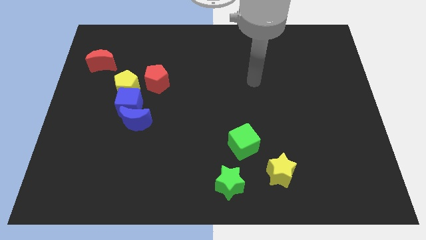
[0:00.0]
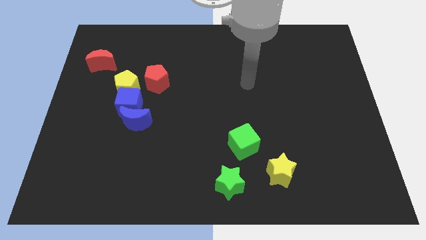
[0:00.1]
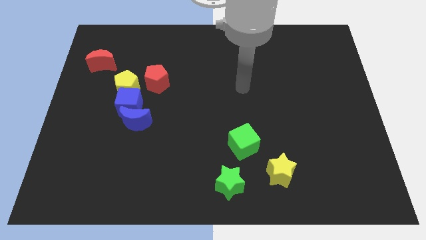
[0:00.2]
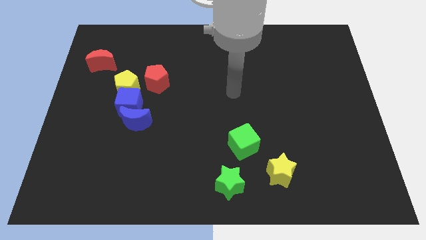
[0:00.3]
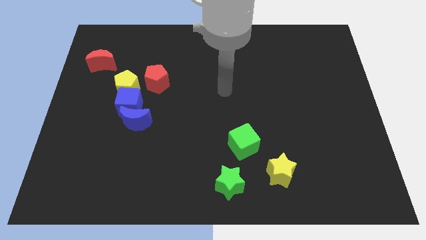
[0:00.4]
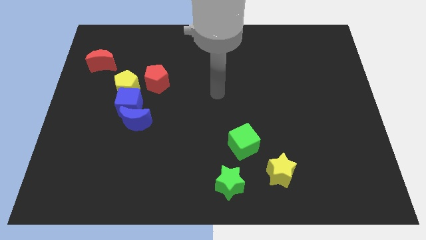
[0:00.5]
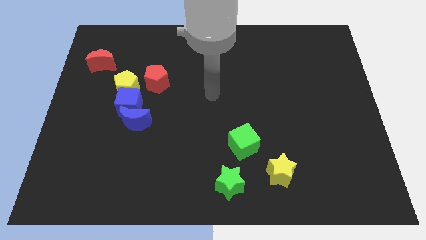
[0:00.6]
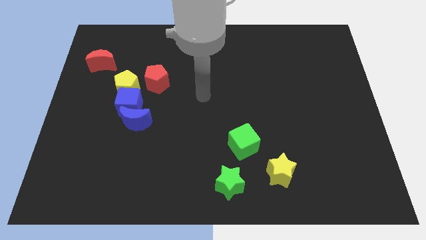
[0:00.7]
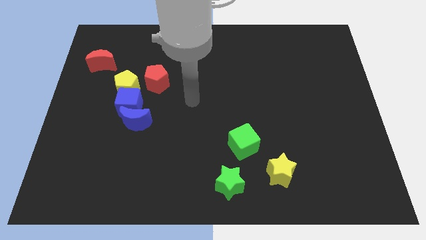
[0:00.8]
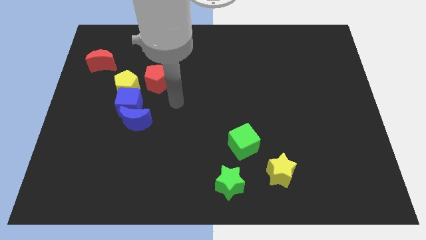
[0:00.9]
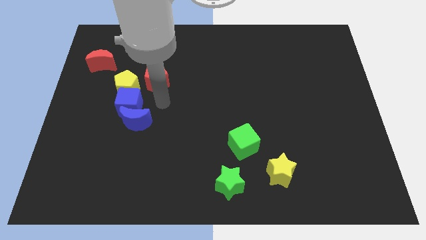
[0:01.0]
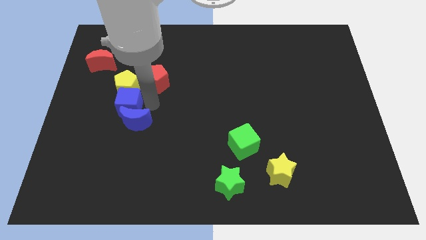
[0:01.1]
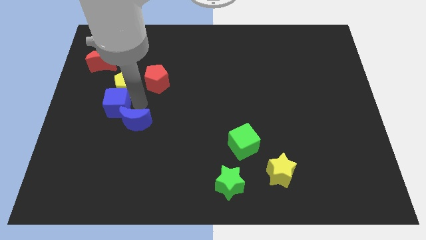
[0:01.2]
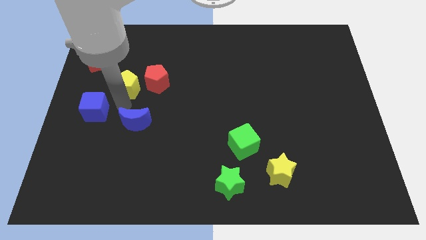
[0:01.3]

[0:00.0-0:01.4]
pull the blue moon apart from the blue cube

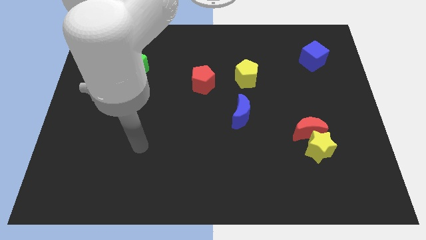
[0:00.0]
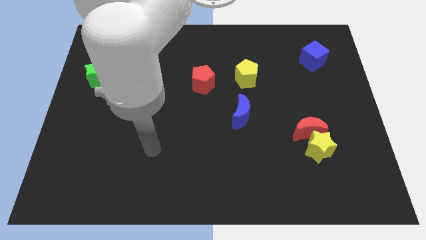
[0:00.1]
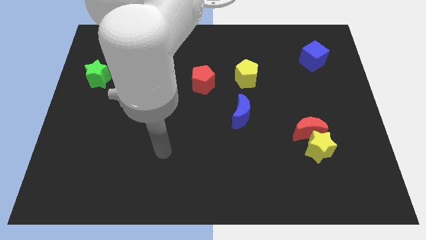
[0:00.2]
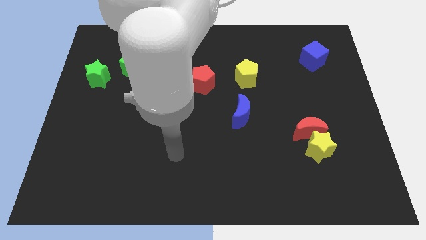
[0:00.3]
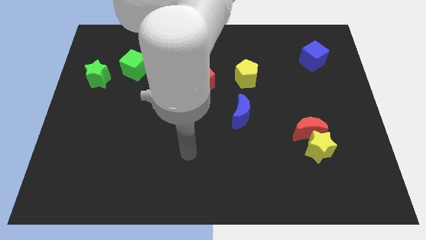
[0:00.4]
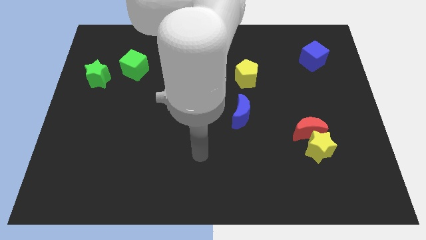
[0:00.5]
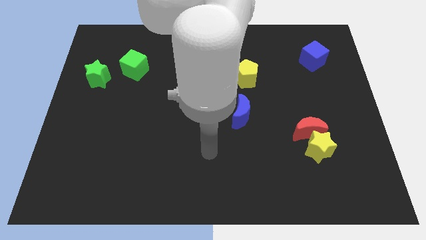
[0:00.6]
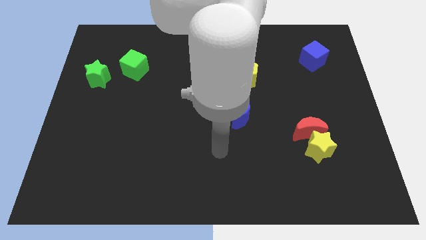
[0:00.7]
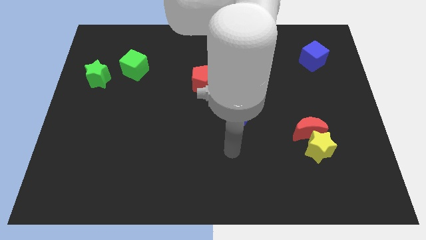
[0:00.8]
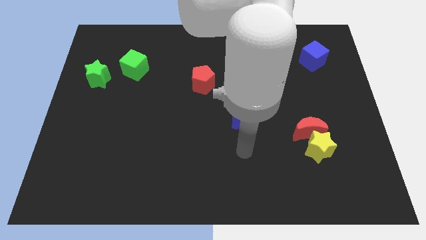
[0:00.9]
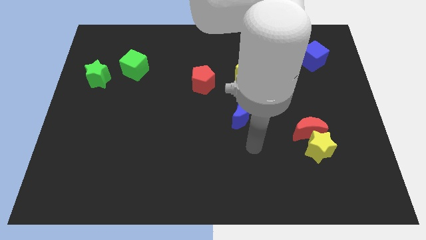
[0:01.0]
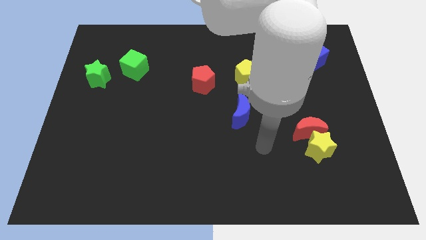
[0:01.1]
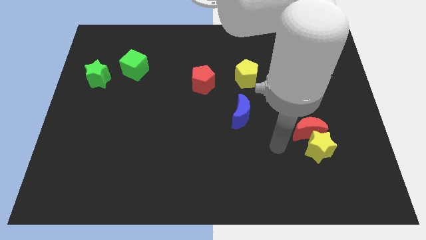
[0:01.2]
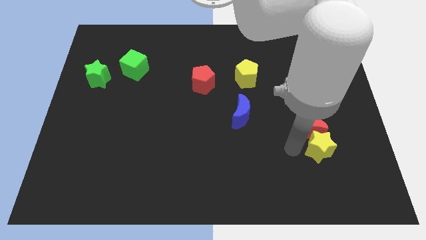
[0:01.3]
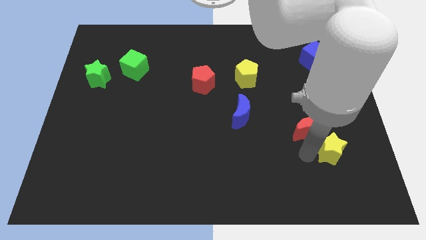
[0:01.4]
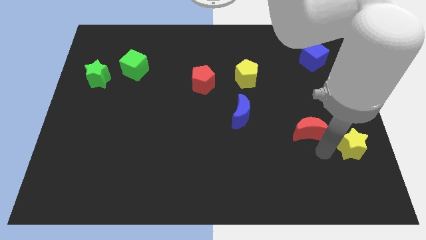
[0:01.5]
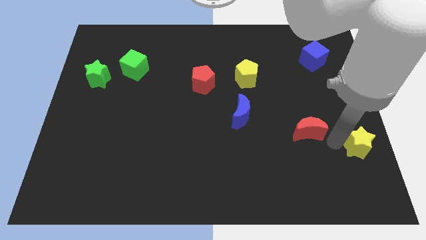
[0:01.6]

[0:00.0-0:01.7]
separate the red moon from the yellow star

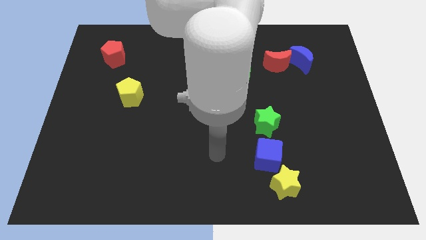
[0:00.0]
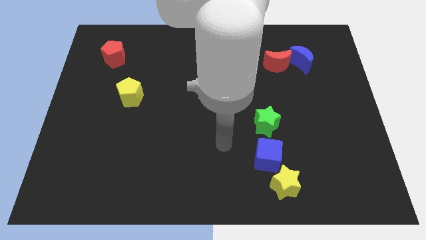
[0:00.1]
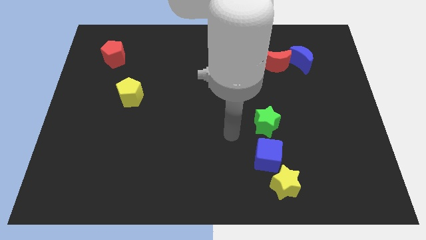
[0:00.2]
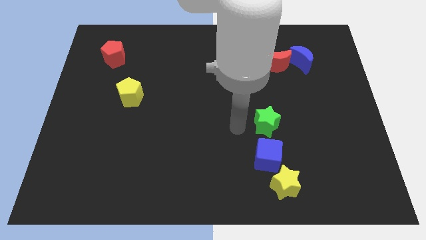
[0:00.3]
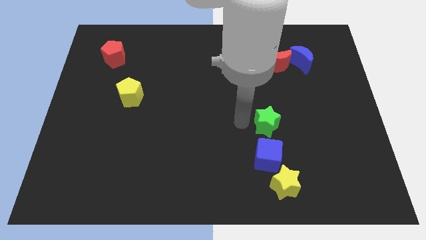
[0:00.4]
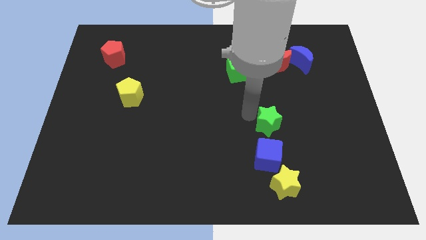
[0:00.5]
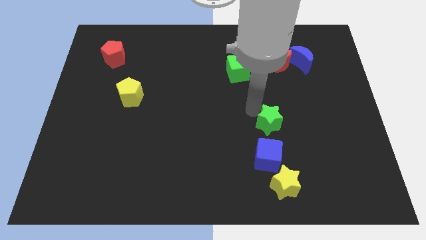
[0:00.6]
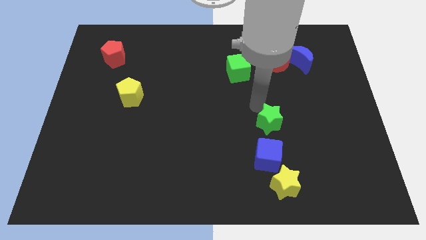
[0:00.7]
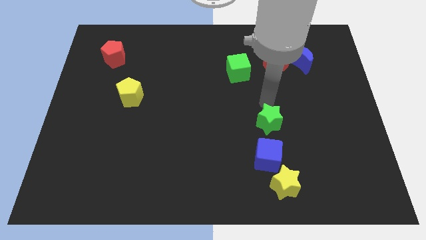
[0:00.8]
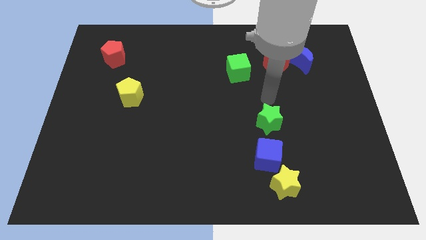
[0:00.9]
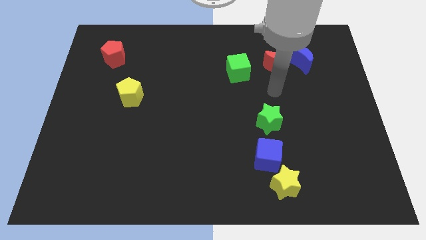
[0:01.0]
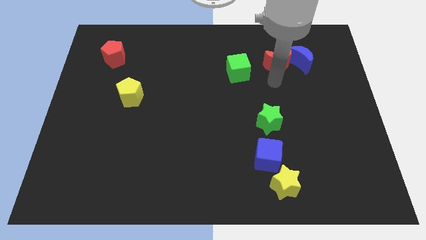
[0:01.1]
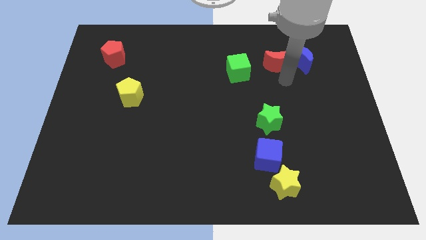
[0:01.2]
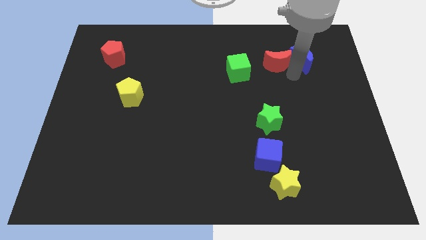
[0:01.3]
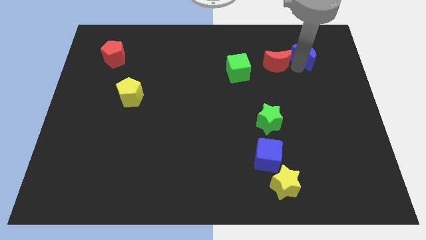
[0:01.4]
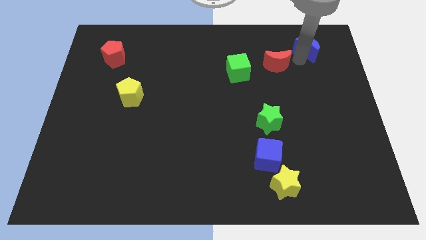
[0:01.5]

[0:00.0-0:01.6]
separate the red moon from the blue moon

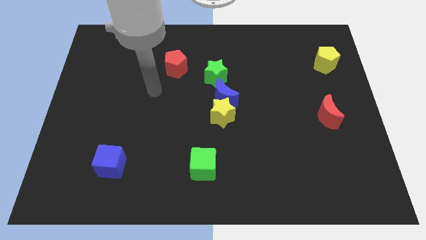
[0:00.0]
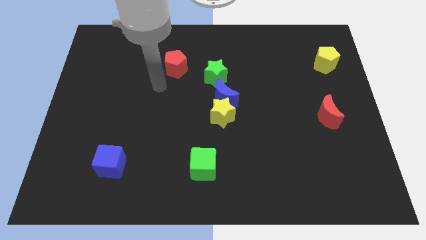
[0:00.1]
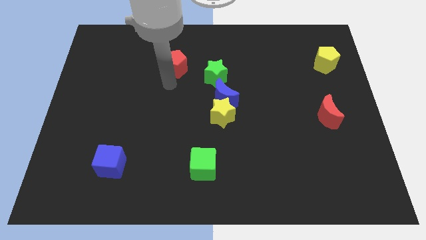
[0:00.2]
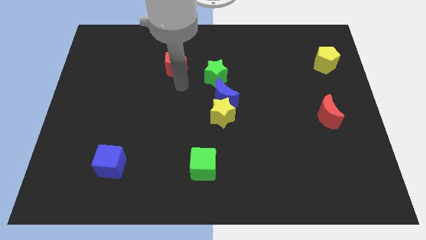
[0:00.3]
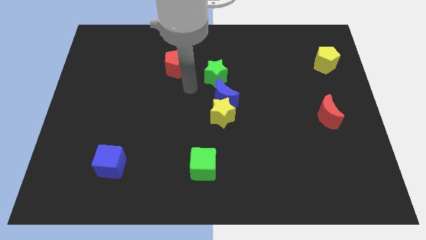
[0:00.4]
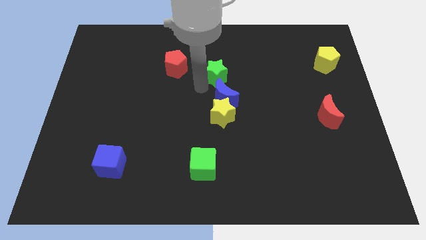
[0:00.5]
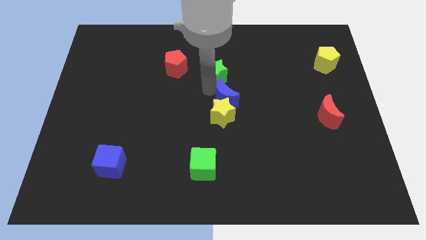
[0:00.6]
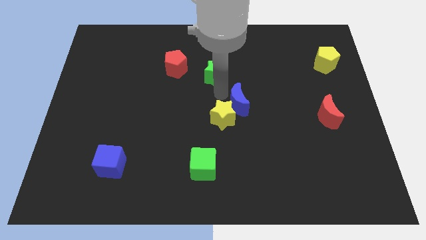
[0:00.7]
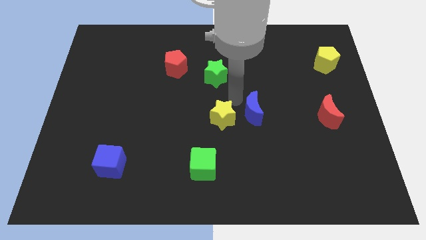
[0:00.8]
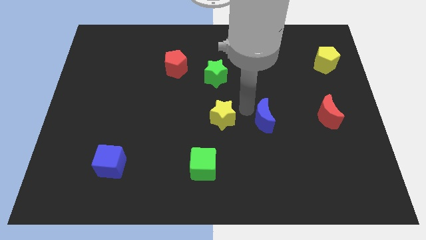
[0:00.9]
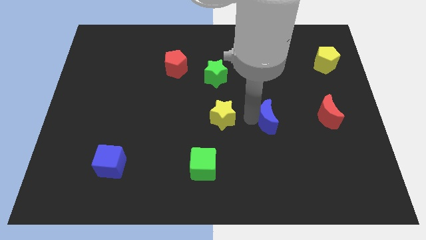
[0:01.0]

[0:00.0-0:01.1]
separate the yellow star from the blue moon

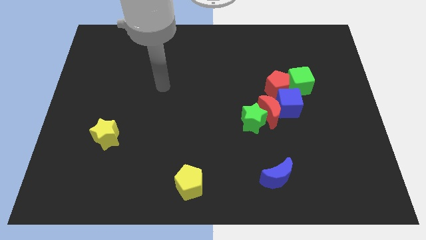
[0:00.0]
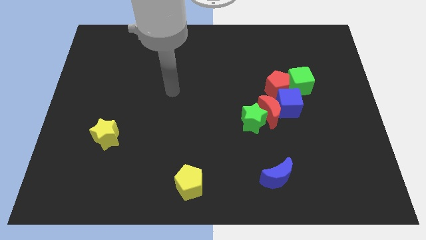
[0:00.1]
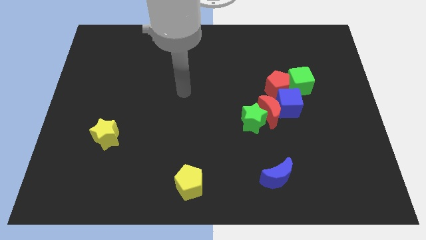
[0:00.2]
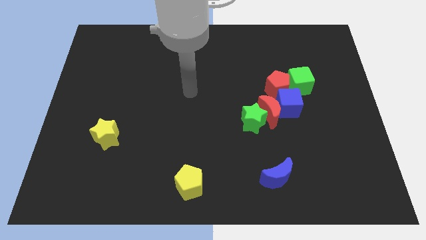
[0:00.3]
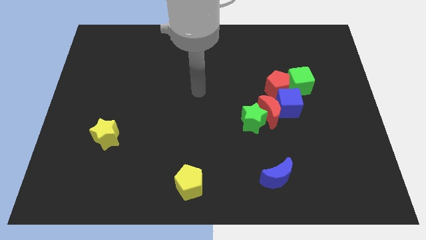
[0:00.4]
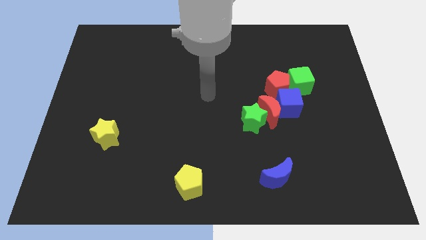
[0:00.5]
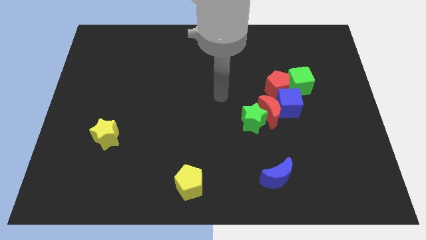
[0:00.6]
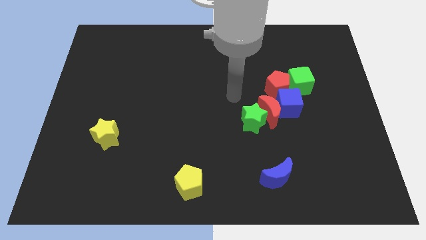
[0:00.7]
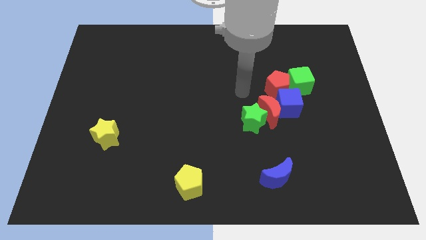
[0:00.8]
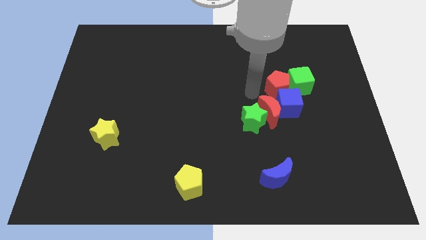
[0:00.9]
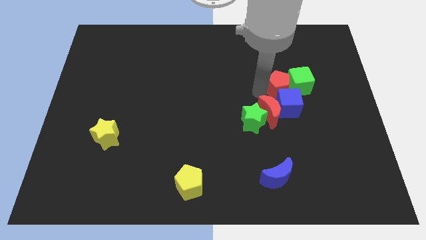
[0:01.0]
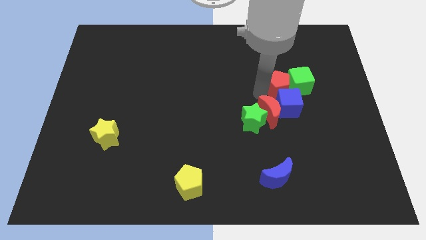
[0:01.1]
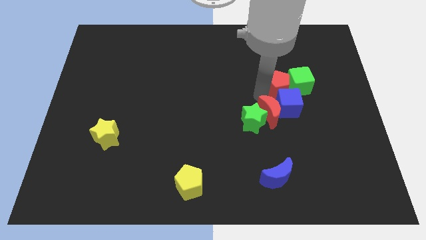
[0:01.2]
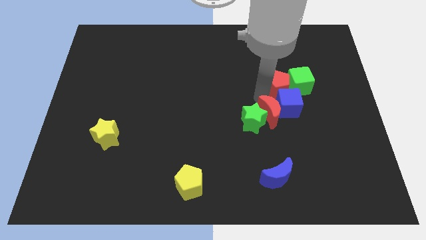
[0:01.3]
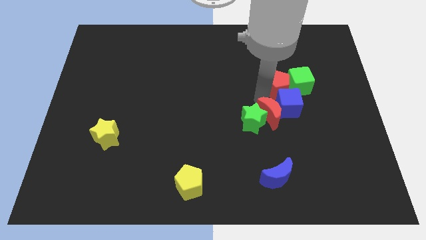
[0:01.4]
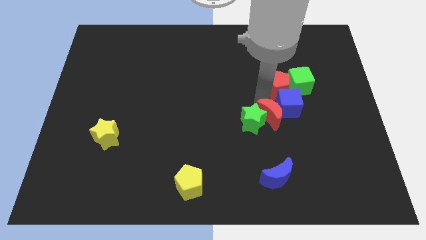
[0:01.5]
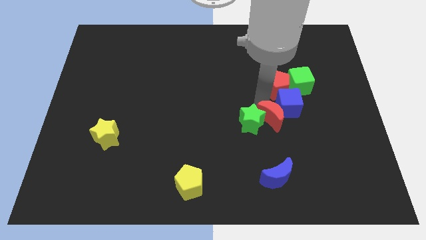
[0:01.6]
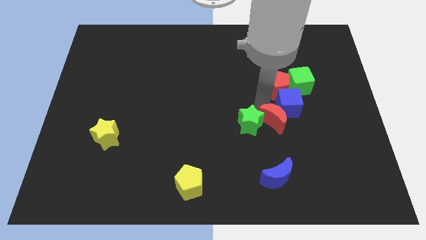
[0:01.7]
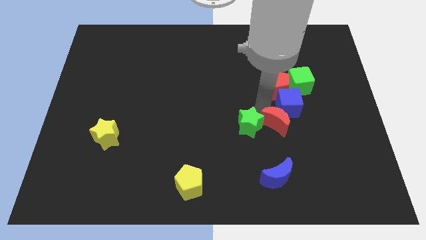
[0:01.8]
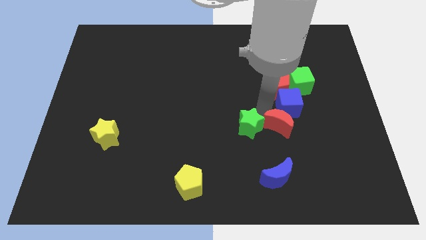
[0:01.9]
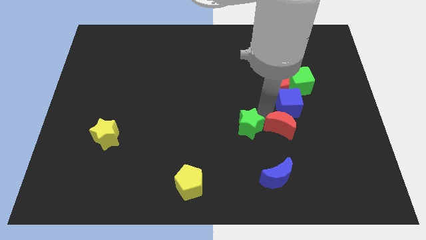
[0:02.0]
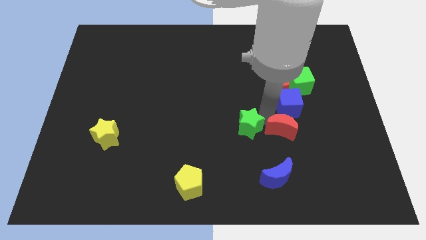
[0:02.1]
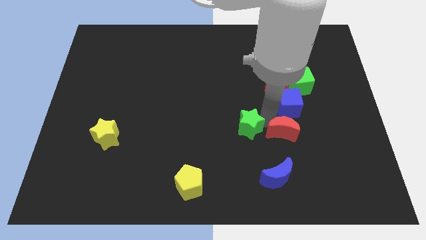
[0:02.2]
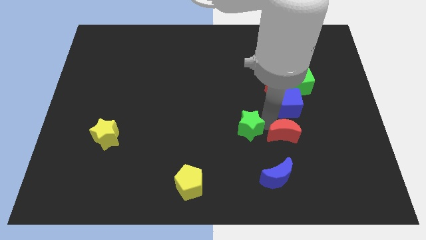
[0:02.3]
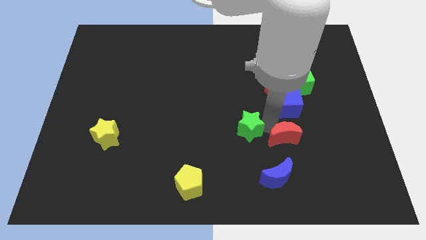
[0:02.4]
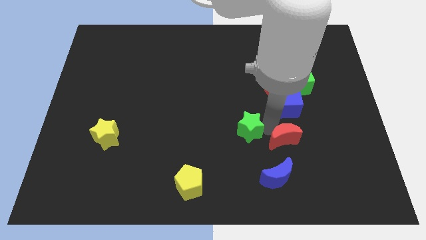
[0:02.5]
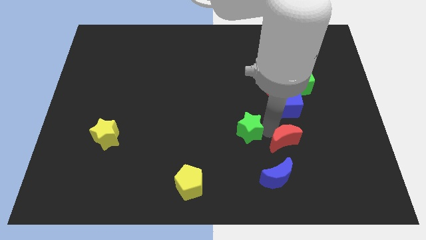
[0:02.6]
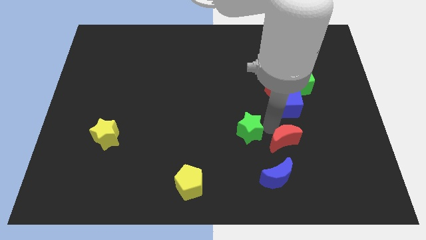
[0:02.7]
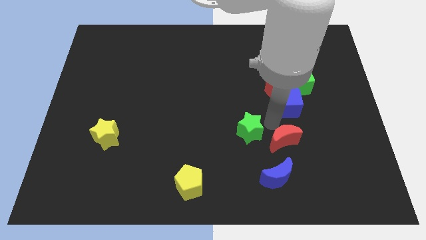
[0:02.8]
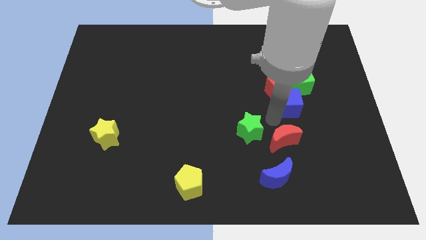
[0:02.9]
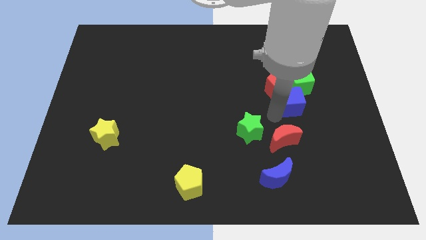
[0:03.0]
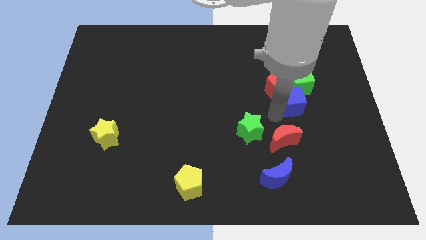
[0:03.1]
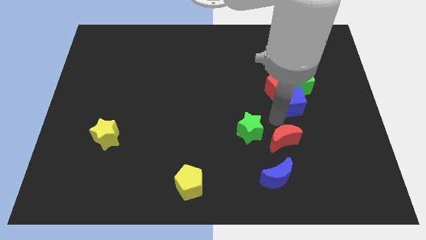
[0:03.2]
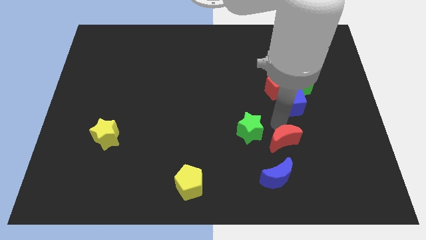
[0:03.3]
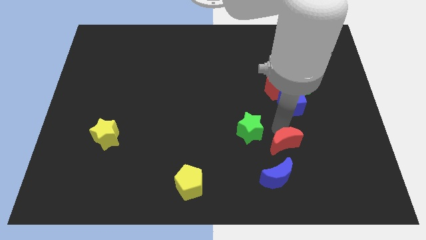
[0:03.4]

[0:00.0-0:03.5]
separate the red moon from the clump
